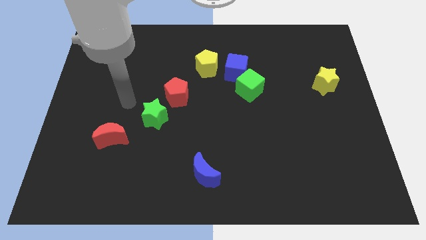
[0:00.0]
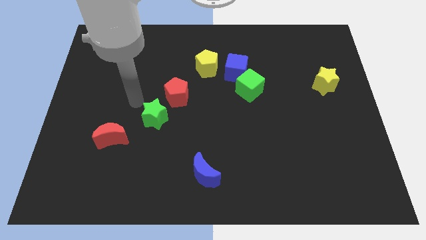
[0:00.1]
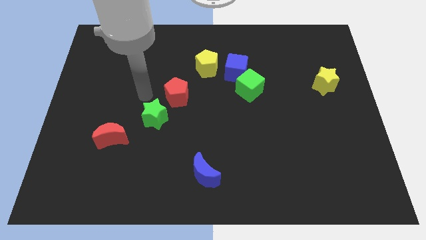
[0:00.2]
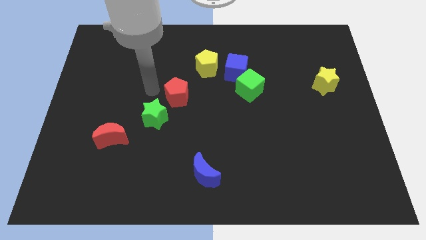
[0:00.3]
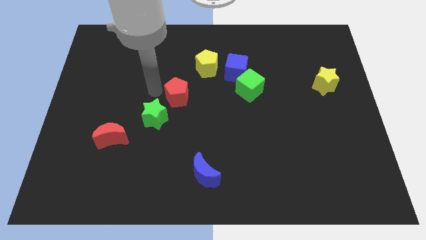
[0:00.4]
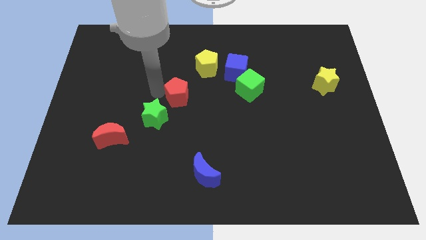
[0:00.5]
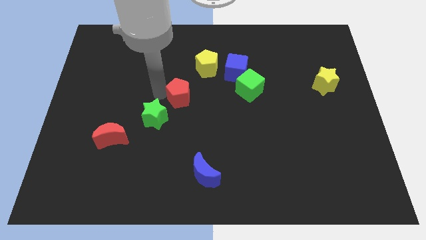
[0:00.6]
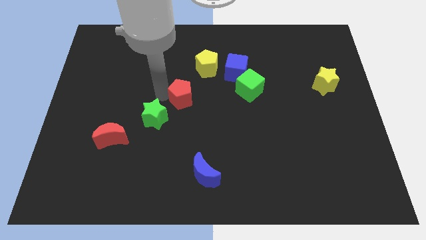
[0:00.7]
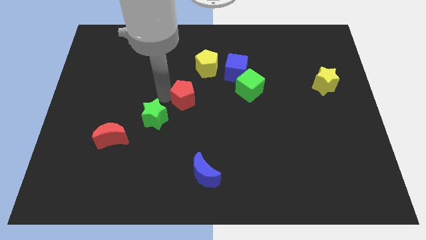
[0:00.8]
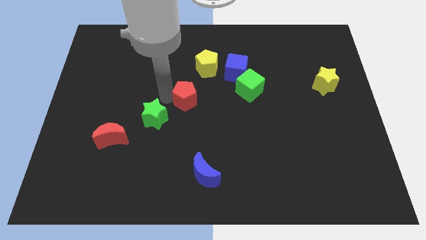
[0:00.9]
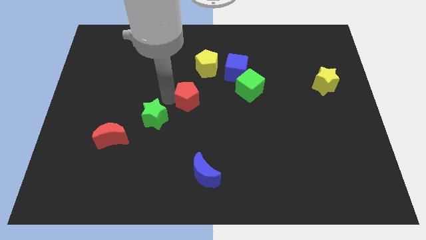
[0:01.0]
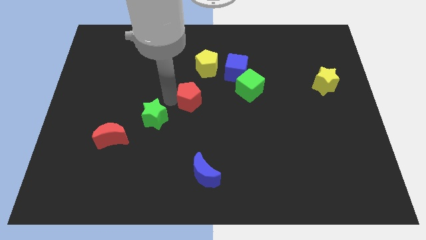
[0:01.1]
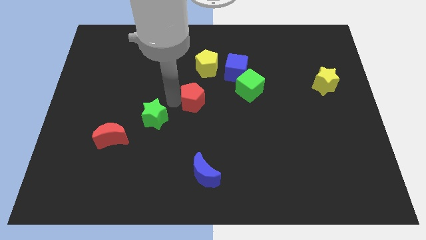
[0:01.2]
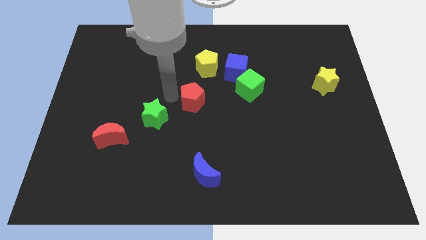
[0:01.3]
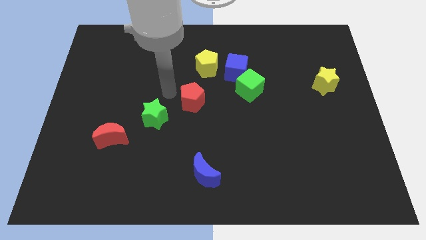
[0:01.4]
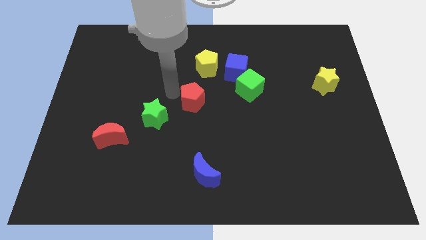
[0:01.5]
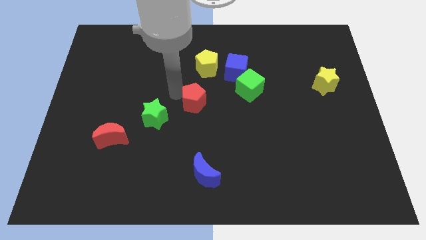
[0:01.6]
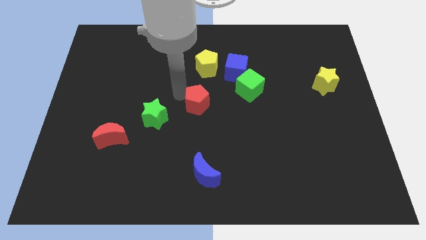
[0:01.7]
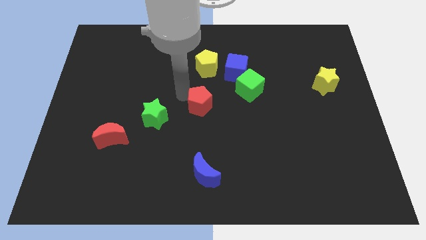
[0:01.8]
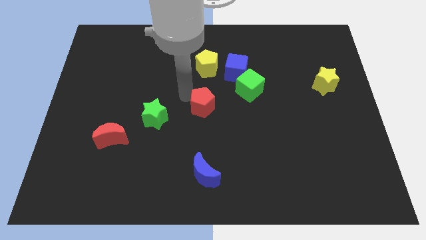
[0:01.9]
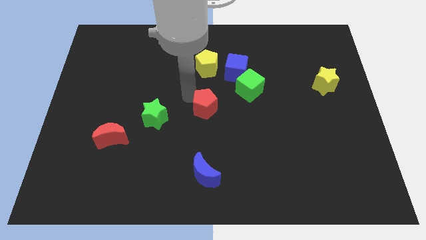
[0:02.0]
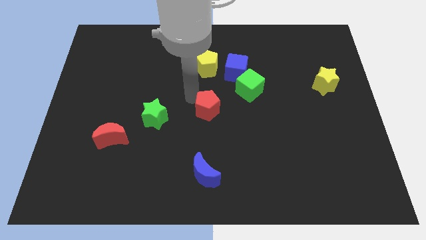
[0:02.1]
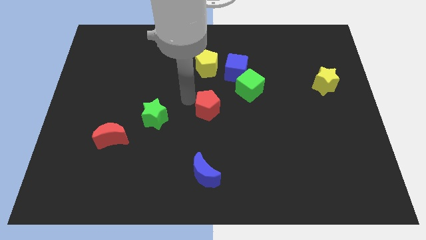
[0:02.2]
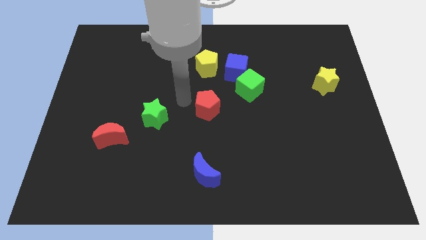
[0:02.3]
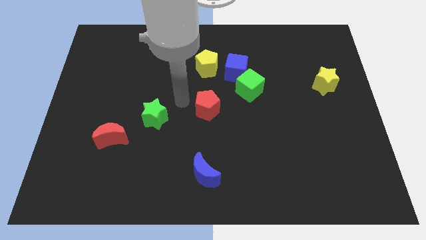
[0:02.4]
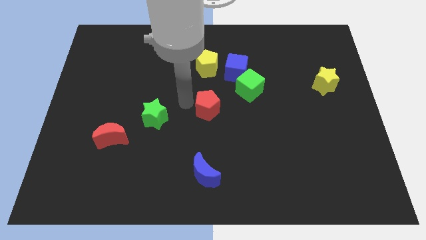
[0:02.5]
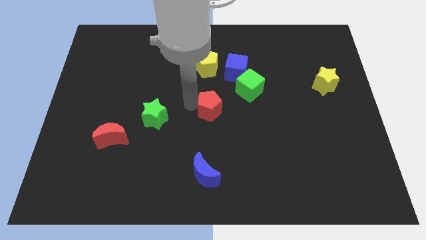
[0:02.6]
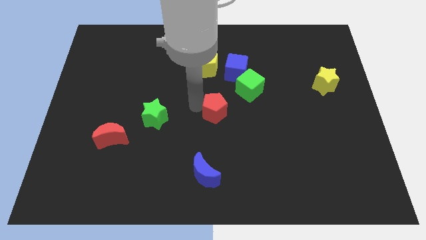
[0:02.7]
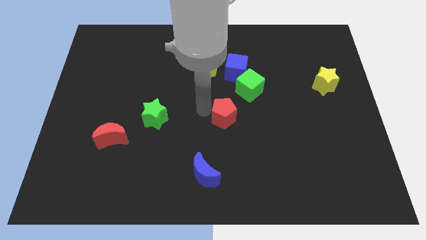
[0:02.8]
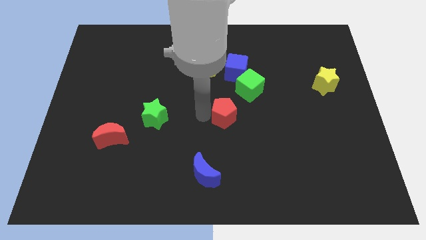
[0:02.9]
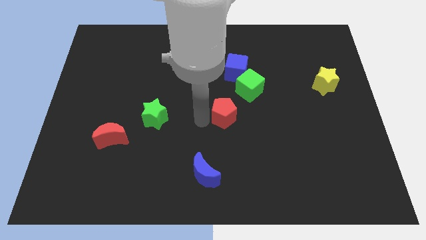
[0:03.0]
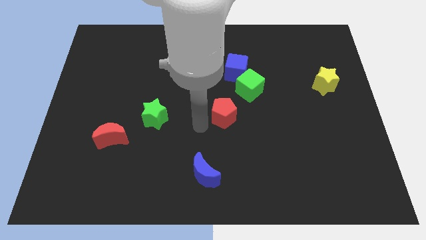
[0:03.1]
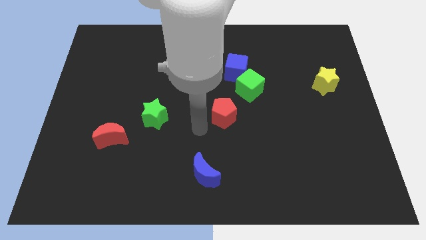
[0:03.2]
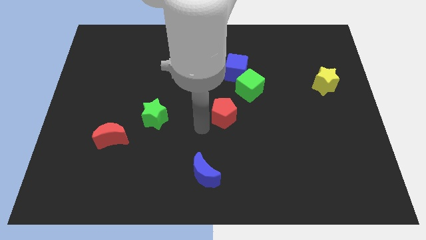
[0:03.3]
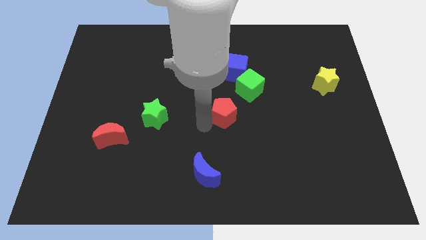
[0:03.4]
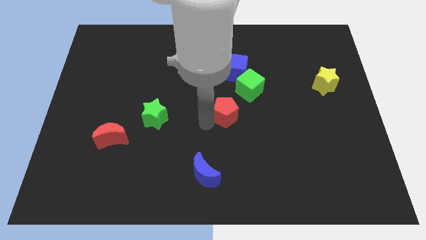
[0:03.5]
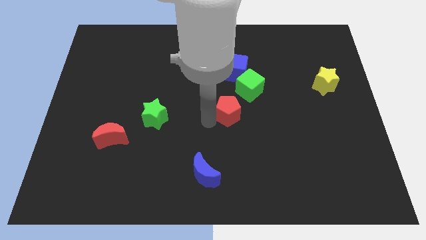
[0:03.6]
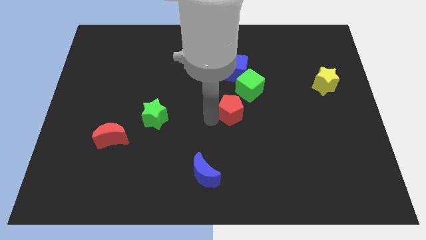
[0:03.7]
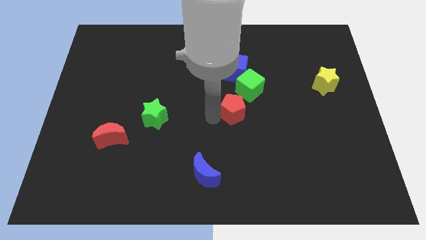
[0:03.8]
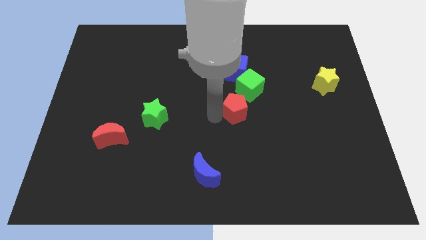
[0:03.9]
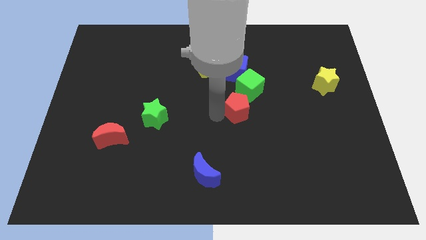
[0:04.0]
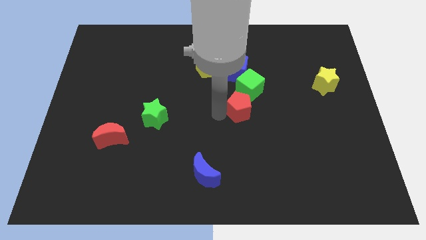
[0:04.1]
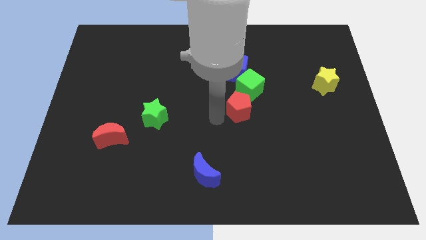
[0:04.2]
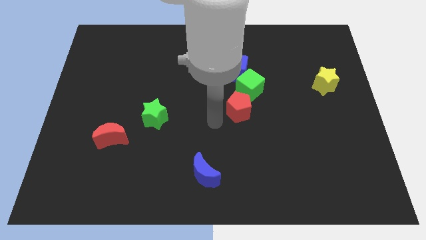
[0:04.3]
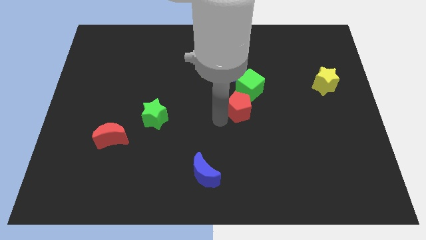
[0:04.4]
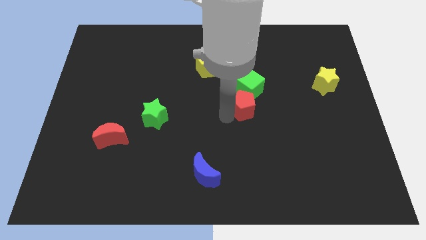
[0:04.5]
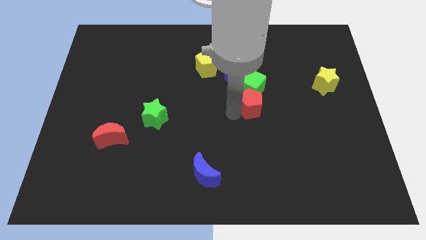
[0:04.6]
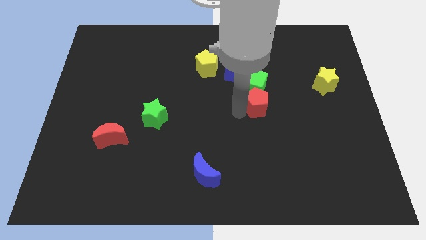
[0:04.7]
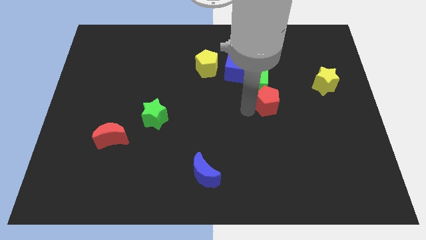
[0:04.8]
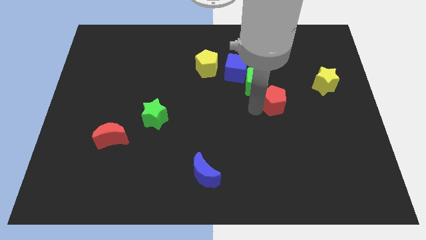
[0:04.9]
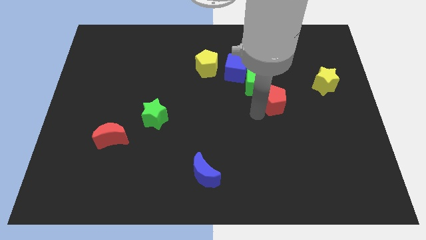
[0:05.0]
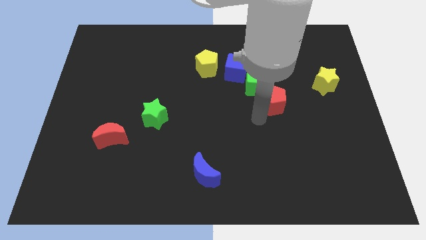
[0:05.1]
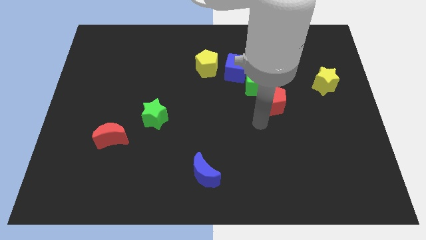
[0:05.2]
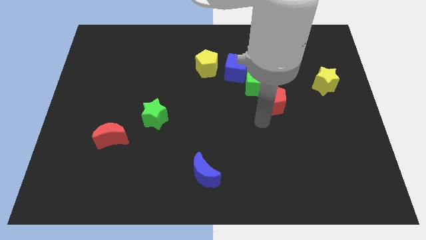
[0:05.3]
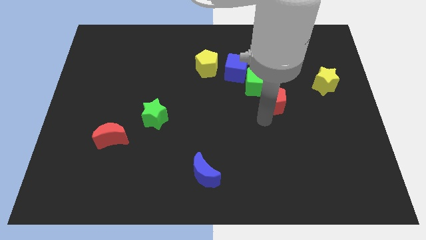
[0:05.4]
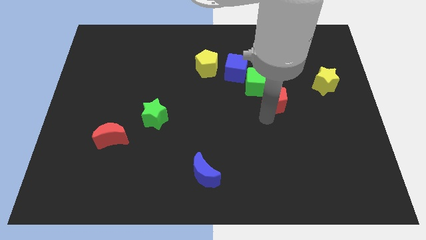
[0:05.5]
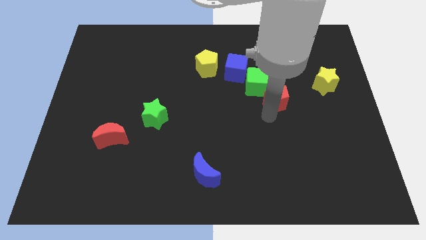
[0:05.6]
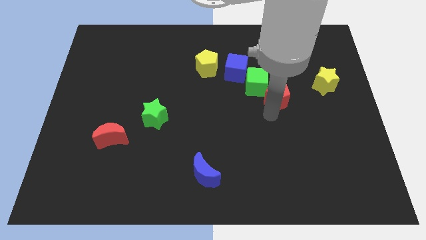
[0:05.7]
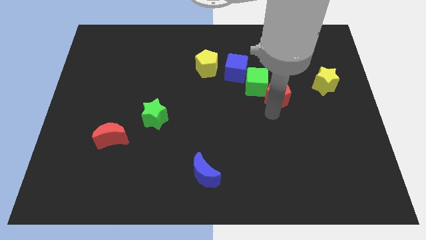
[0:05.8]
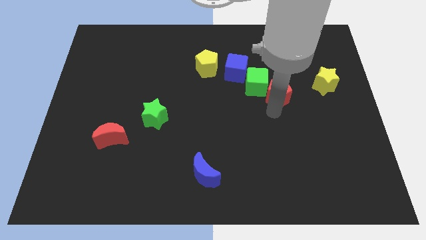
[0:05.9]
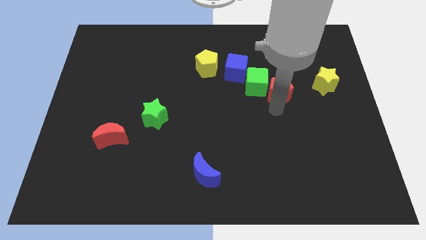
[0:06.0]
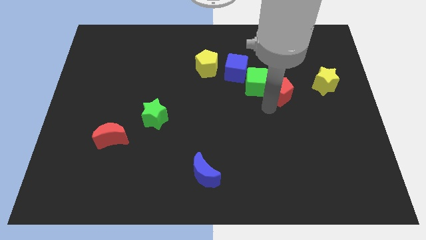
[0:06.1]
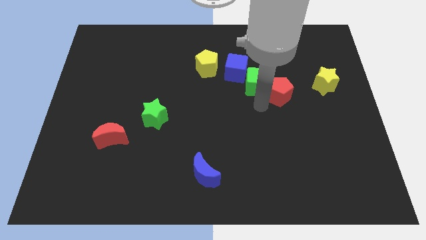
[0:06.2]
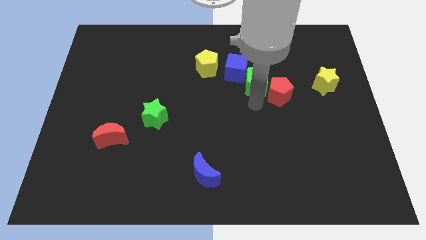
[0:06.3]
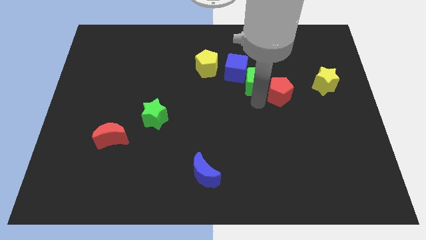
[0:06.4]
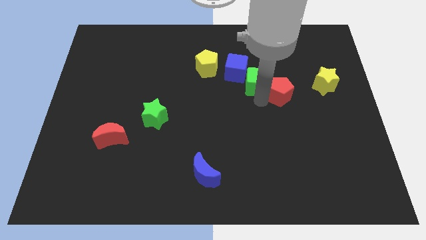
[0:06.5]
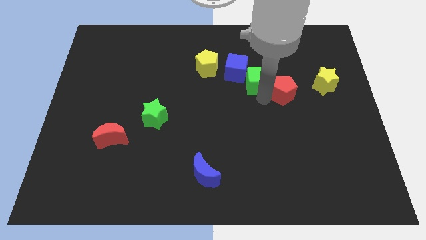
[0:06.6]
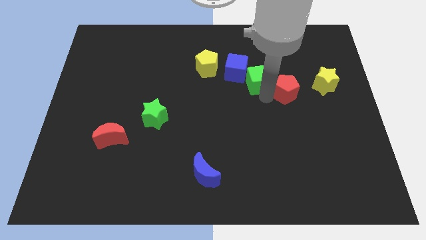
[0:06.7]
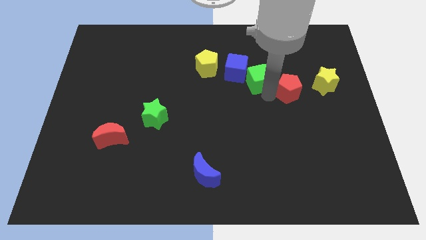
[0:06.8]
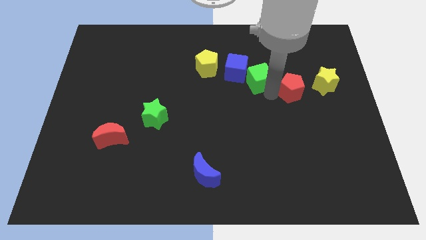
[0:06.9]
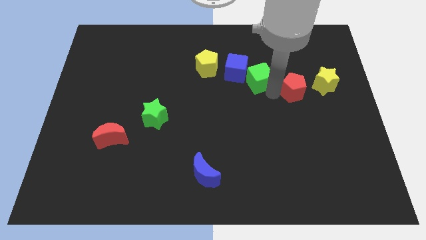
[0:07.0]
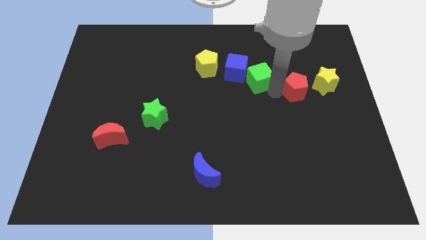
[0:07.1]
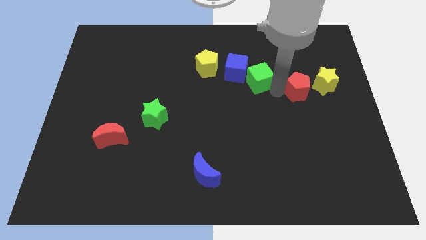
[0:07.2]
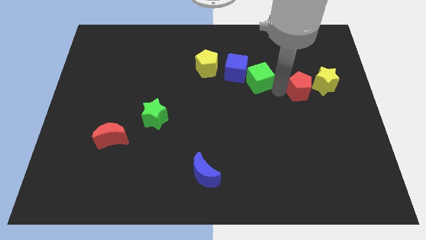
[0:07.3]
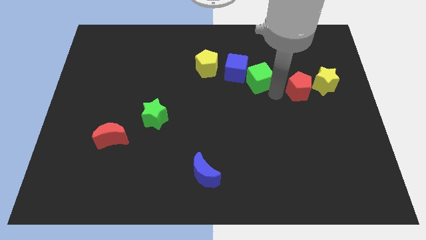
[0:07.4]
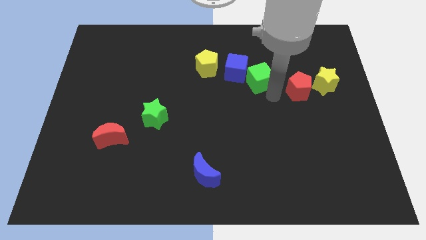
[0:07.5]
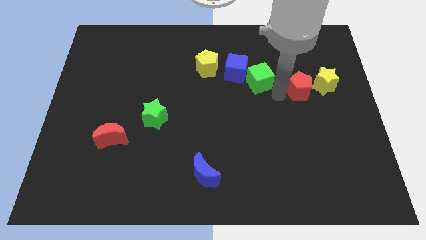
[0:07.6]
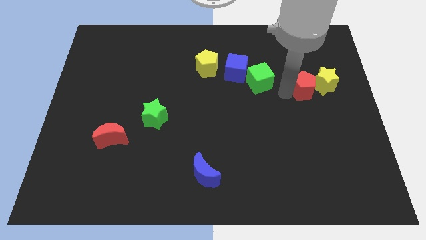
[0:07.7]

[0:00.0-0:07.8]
push the red pentagon towards the yellow star
